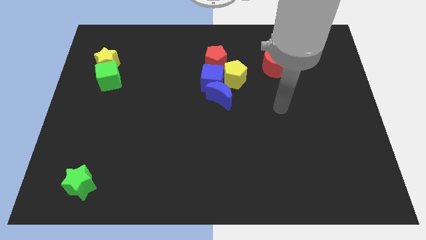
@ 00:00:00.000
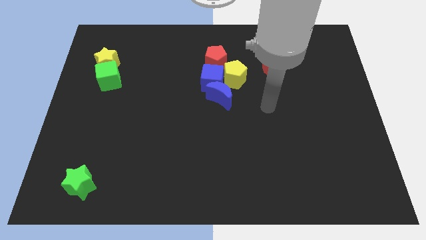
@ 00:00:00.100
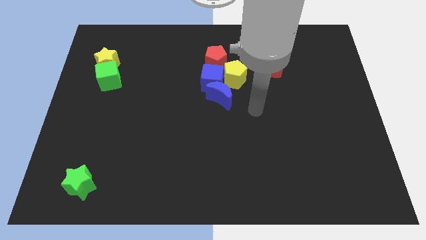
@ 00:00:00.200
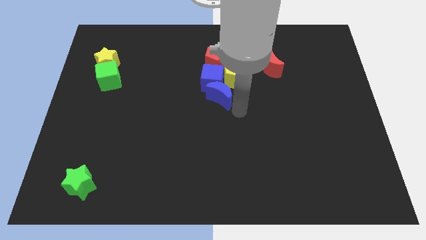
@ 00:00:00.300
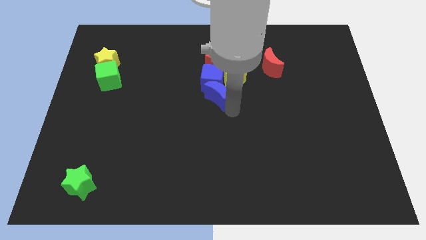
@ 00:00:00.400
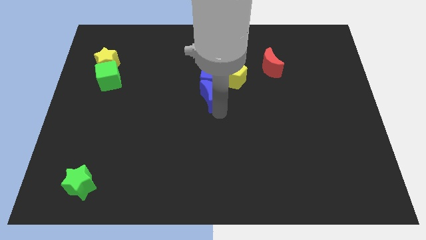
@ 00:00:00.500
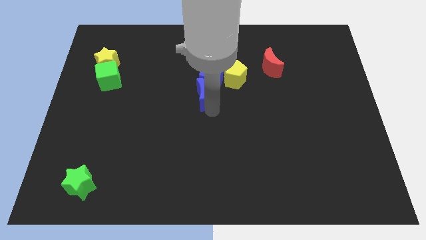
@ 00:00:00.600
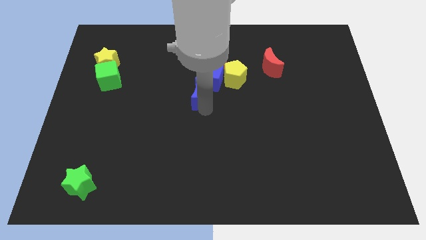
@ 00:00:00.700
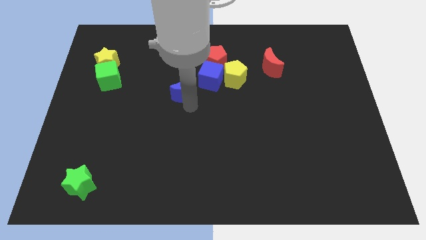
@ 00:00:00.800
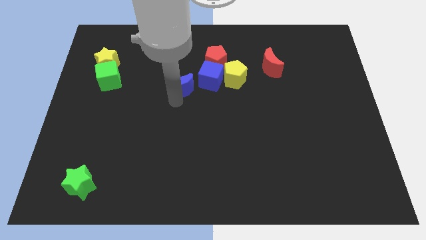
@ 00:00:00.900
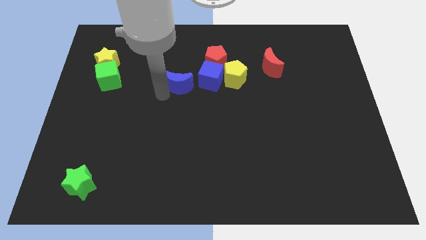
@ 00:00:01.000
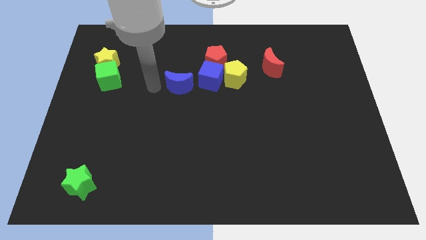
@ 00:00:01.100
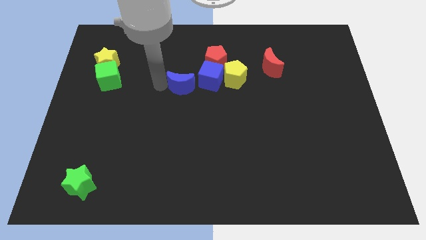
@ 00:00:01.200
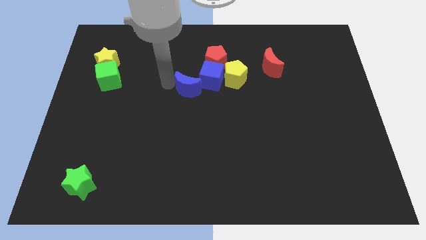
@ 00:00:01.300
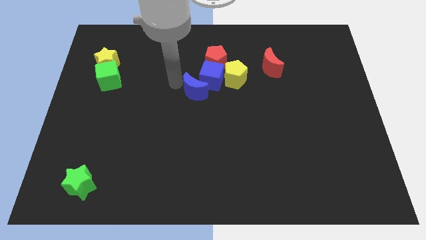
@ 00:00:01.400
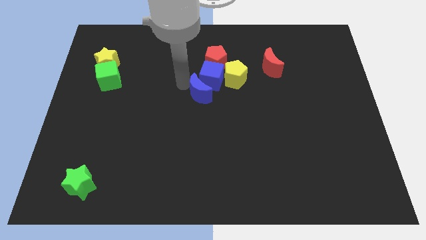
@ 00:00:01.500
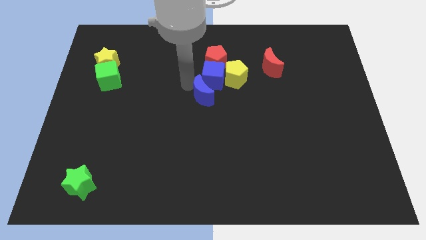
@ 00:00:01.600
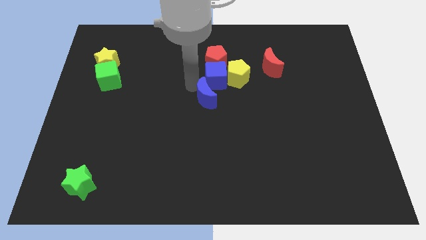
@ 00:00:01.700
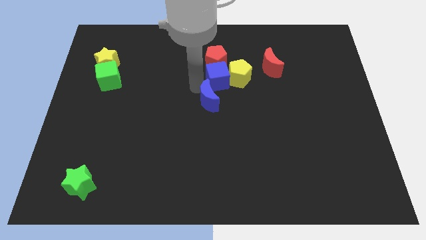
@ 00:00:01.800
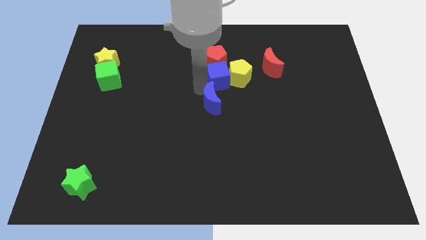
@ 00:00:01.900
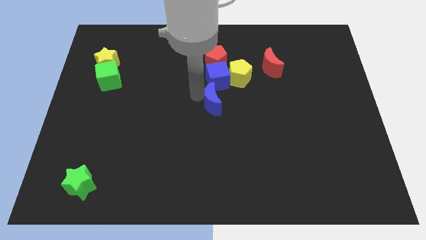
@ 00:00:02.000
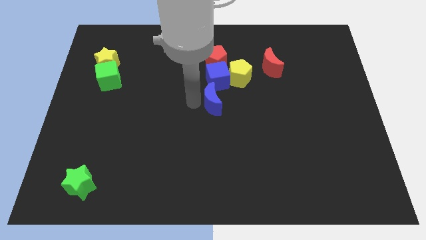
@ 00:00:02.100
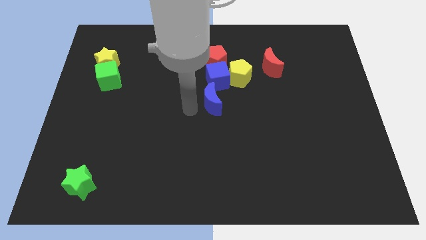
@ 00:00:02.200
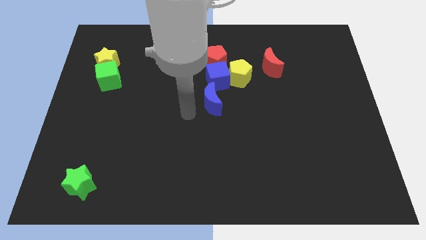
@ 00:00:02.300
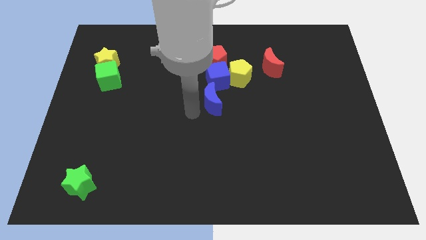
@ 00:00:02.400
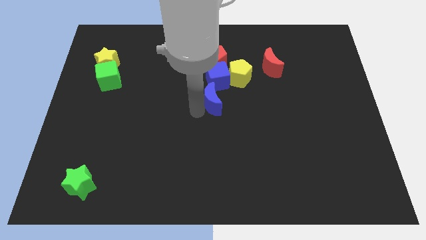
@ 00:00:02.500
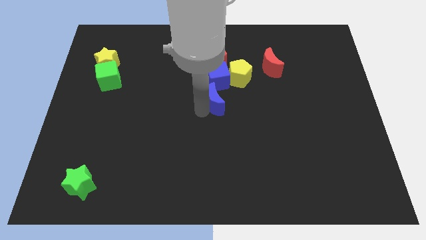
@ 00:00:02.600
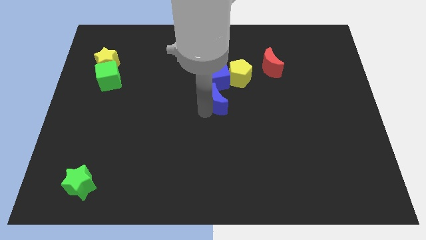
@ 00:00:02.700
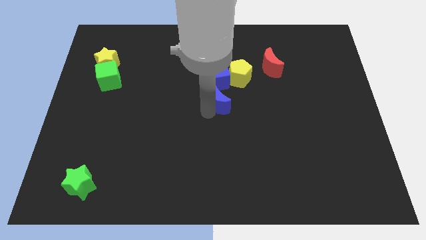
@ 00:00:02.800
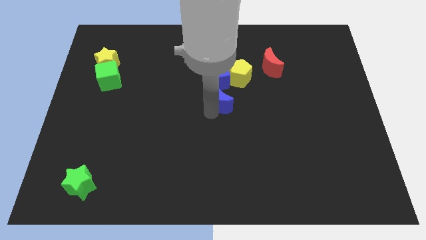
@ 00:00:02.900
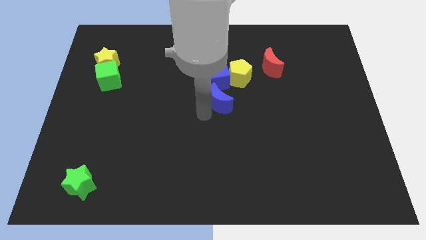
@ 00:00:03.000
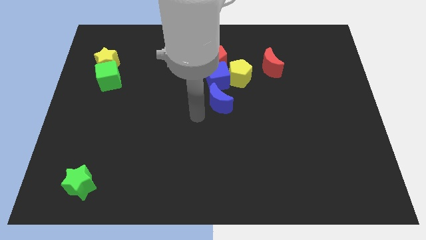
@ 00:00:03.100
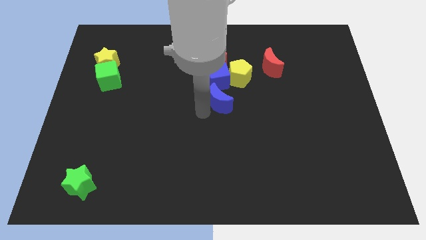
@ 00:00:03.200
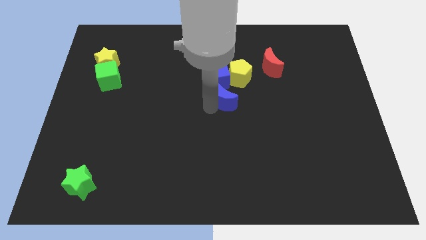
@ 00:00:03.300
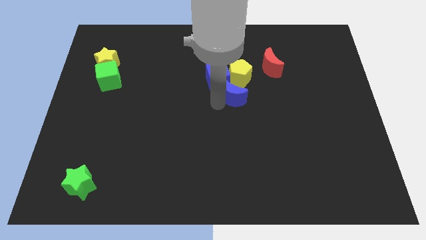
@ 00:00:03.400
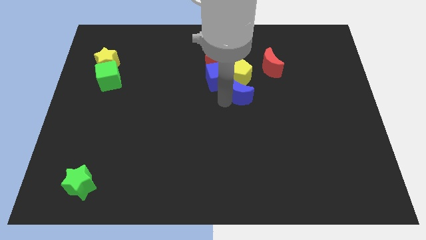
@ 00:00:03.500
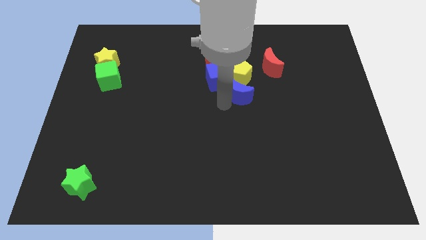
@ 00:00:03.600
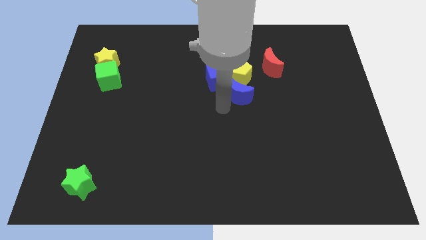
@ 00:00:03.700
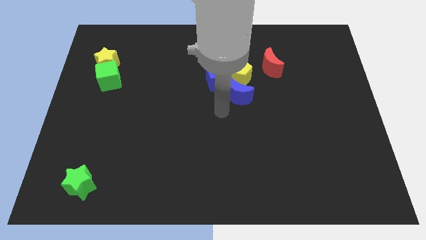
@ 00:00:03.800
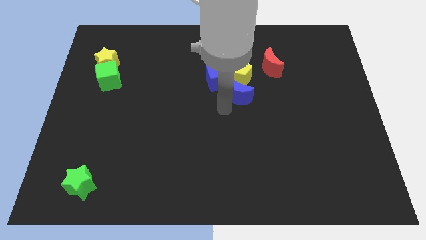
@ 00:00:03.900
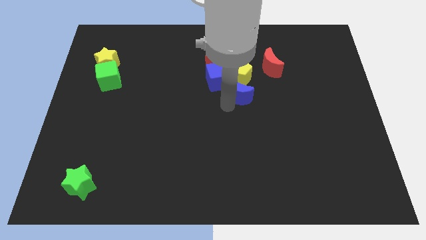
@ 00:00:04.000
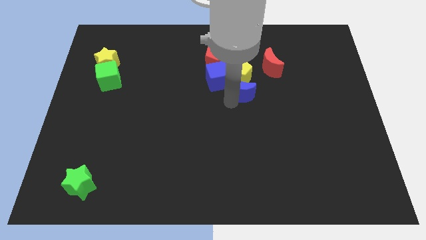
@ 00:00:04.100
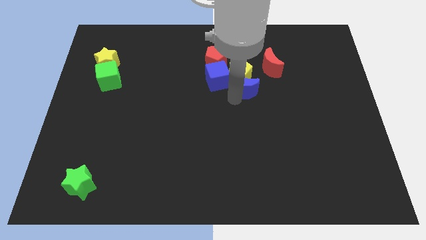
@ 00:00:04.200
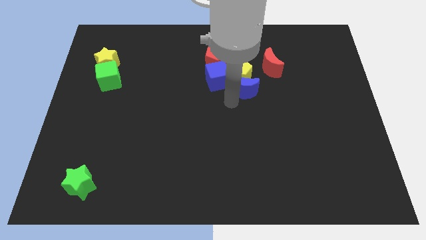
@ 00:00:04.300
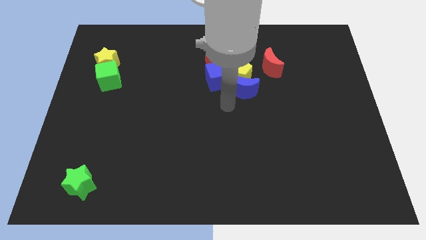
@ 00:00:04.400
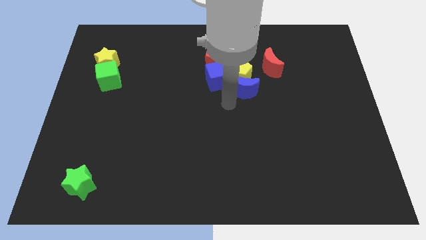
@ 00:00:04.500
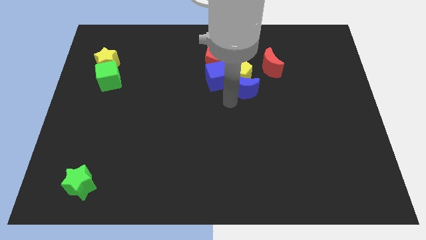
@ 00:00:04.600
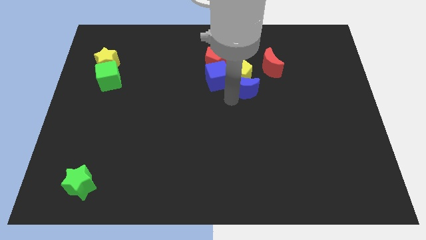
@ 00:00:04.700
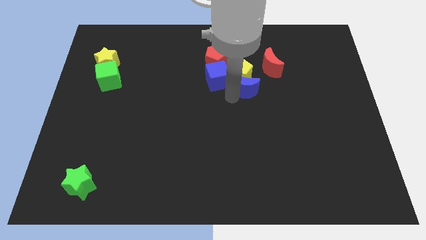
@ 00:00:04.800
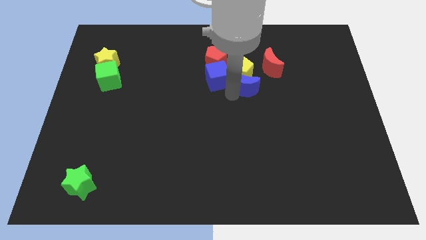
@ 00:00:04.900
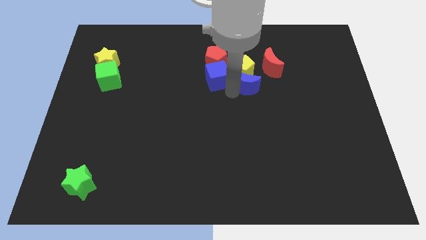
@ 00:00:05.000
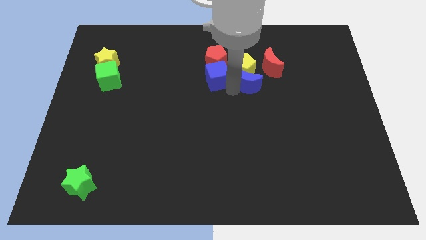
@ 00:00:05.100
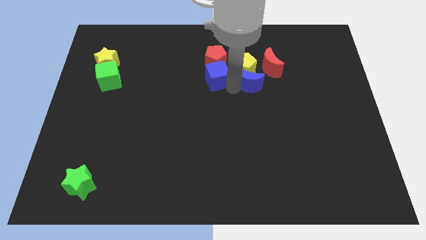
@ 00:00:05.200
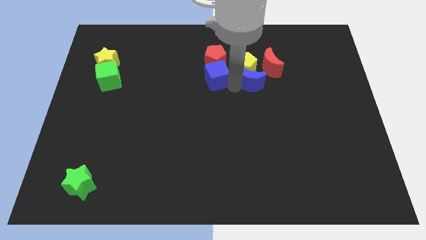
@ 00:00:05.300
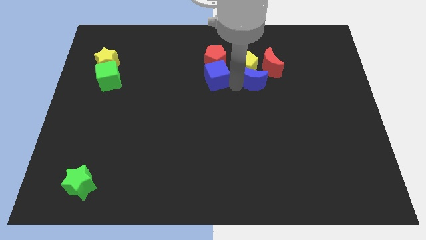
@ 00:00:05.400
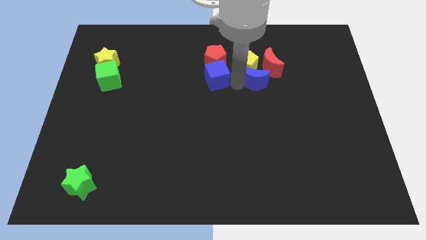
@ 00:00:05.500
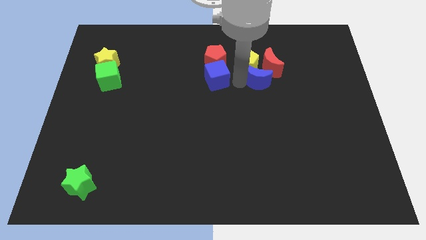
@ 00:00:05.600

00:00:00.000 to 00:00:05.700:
put the blue moon next to the red moon

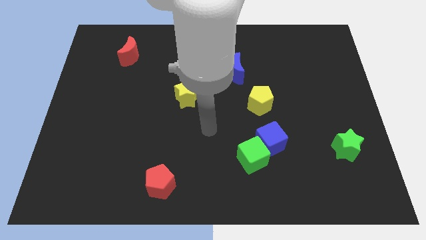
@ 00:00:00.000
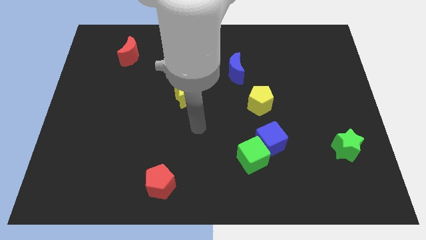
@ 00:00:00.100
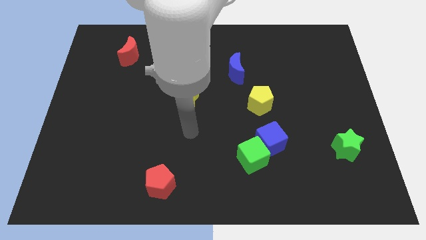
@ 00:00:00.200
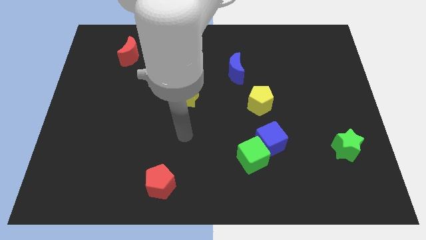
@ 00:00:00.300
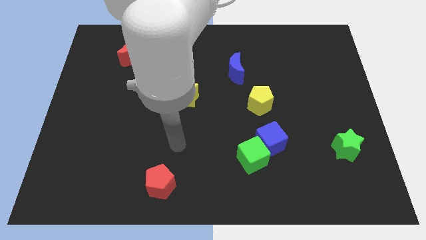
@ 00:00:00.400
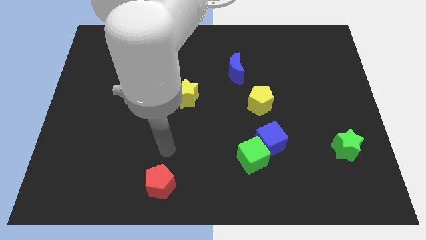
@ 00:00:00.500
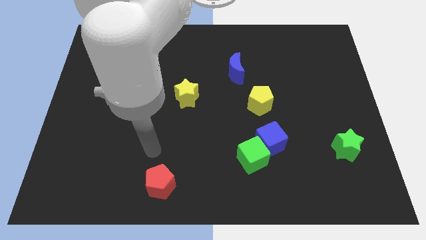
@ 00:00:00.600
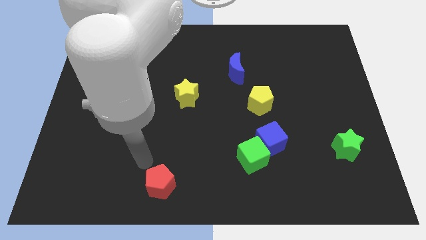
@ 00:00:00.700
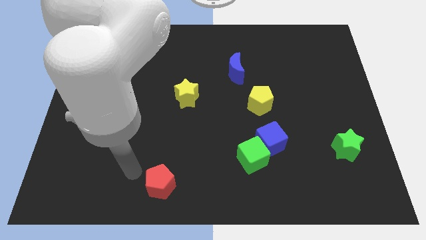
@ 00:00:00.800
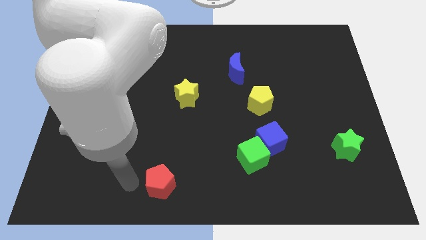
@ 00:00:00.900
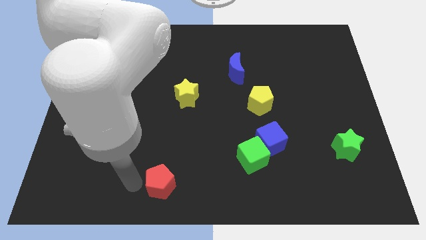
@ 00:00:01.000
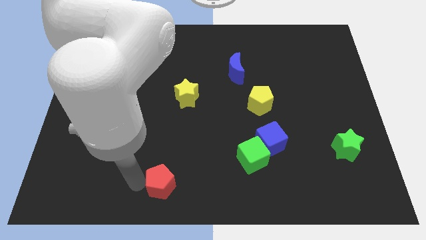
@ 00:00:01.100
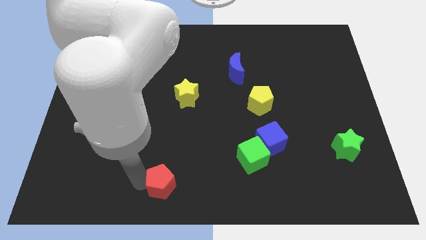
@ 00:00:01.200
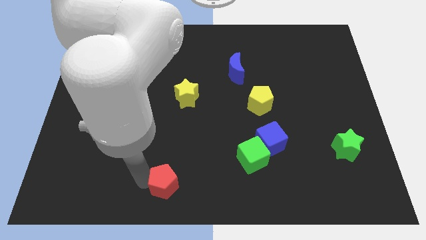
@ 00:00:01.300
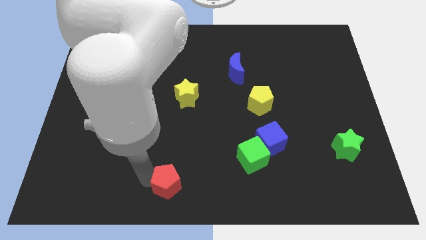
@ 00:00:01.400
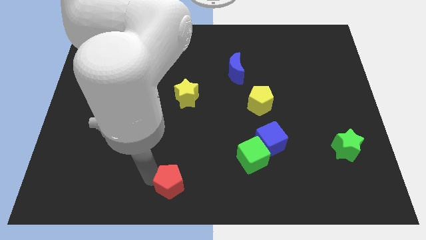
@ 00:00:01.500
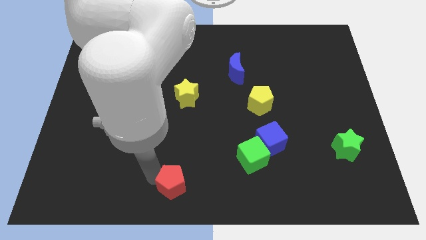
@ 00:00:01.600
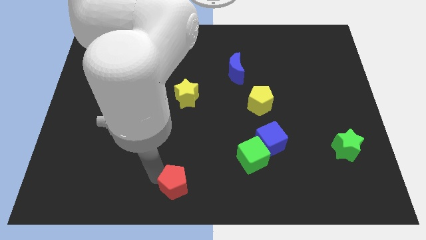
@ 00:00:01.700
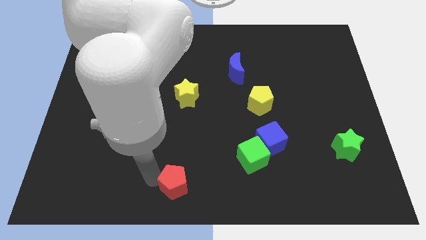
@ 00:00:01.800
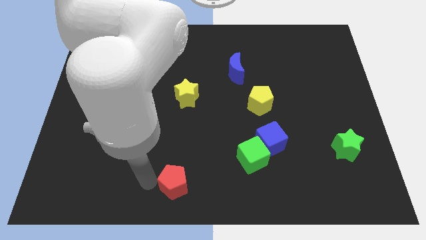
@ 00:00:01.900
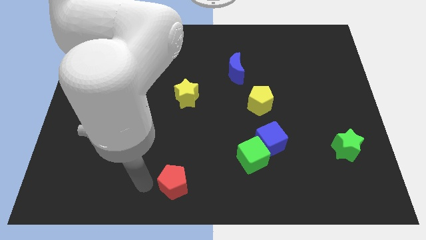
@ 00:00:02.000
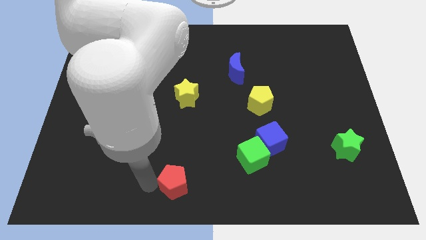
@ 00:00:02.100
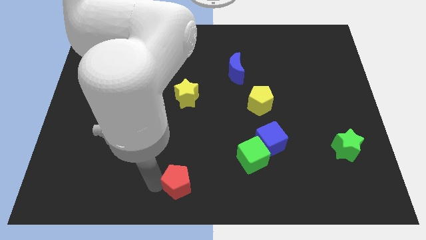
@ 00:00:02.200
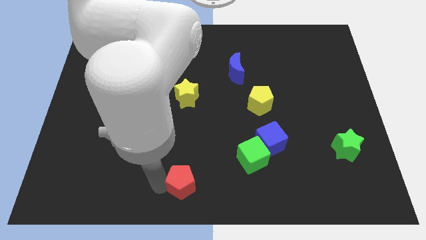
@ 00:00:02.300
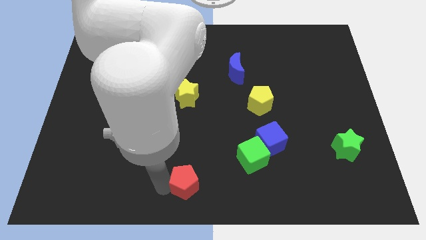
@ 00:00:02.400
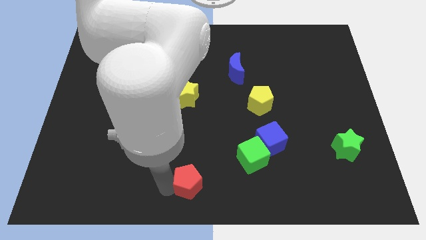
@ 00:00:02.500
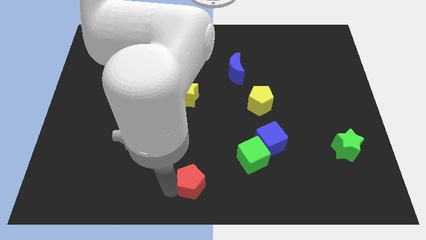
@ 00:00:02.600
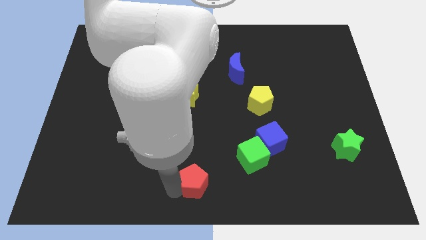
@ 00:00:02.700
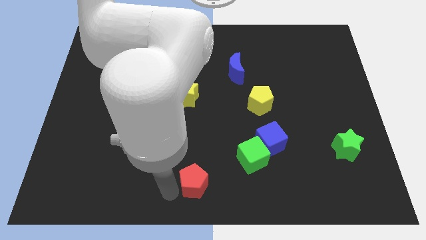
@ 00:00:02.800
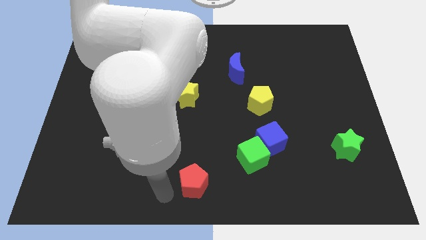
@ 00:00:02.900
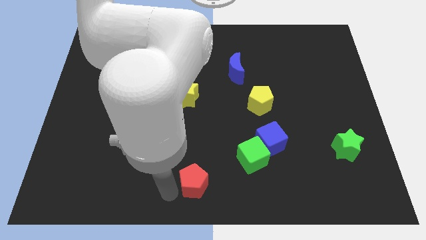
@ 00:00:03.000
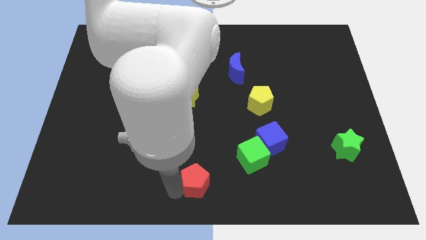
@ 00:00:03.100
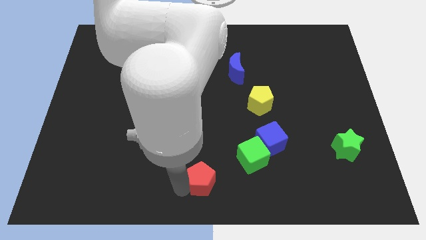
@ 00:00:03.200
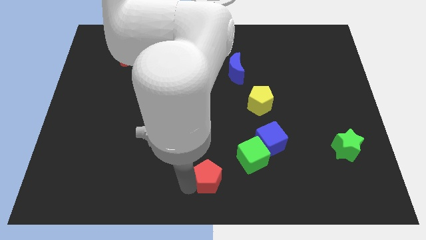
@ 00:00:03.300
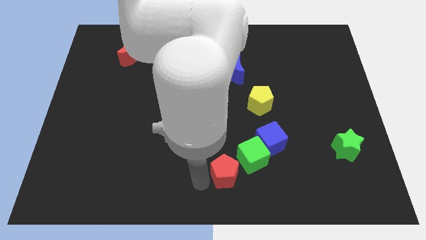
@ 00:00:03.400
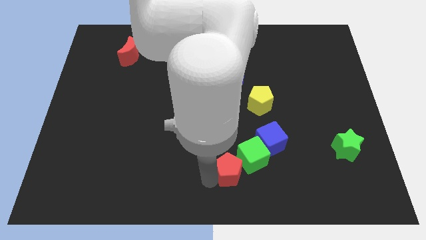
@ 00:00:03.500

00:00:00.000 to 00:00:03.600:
slide the red pentagon towards the green cube
